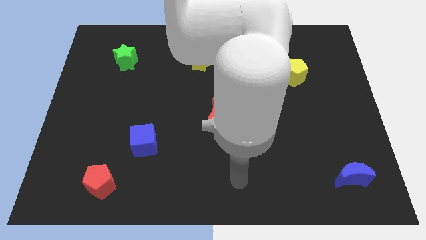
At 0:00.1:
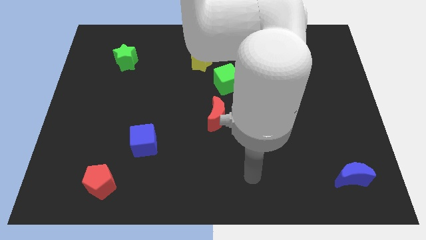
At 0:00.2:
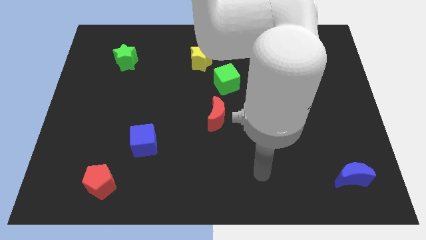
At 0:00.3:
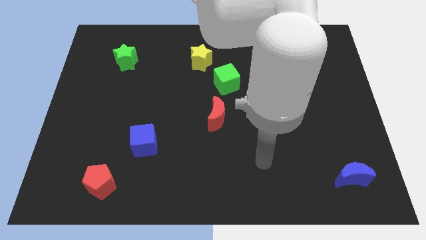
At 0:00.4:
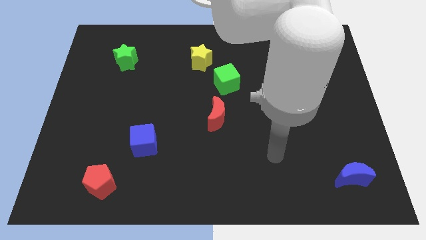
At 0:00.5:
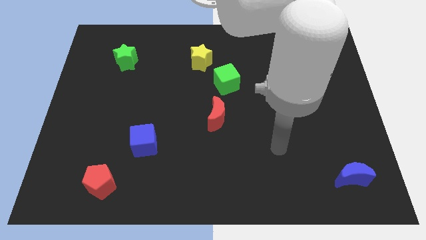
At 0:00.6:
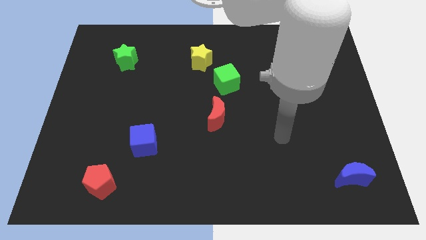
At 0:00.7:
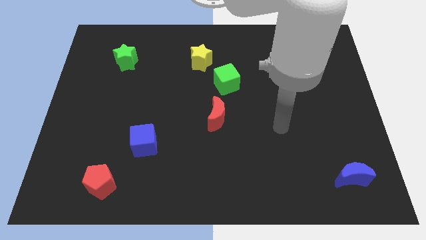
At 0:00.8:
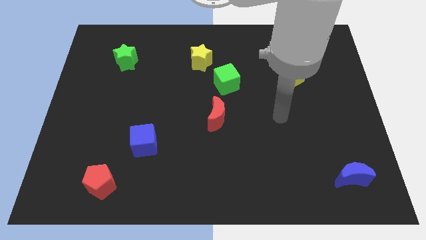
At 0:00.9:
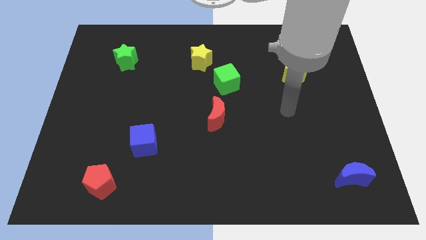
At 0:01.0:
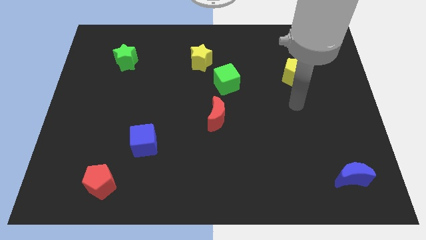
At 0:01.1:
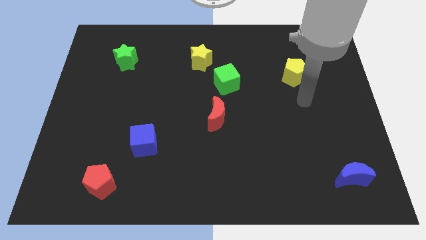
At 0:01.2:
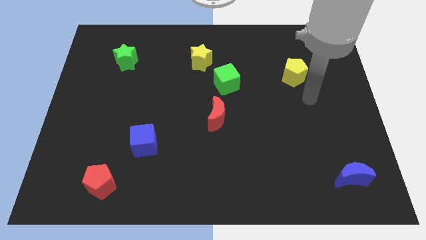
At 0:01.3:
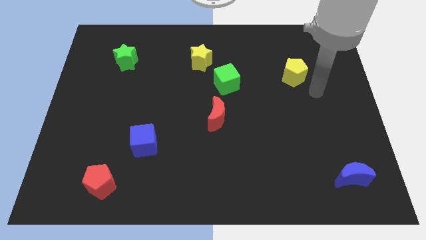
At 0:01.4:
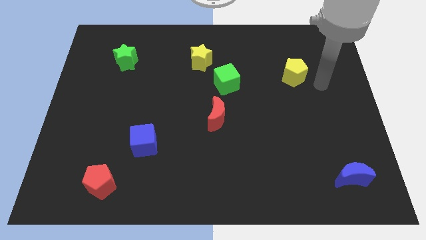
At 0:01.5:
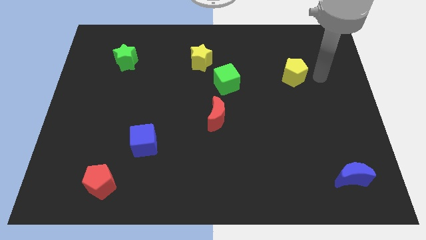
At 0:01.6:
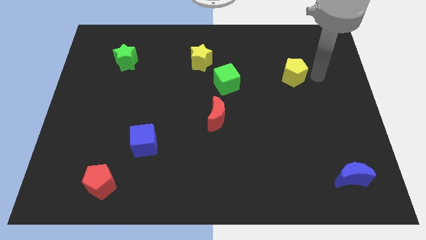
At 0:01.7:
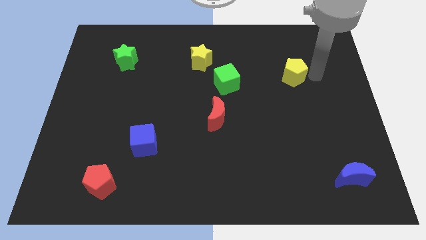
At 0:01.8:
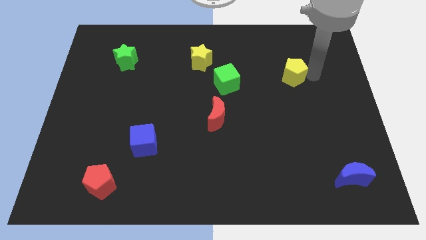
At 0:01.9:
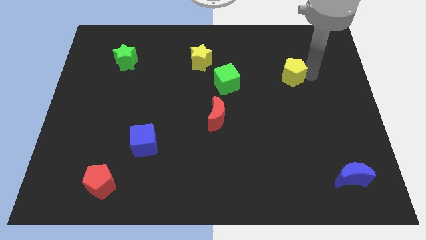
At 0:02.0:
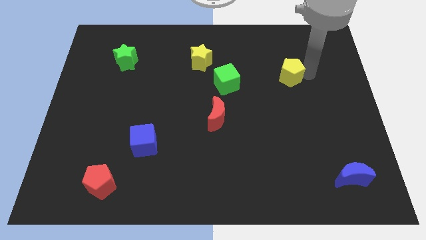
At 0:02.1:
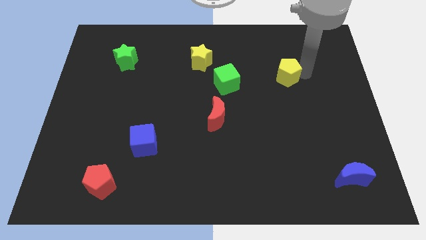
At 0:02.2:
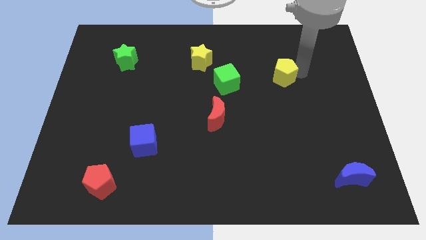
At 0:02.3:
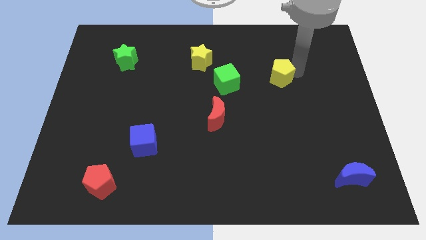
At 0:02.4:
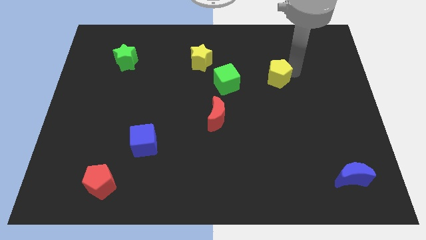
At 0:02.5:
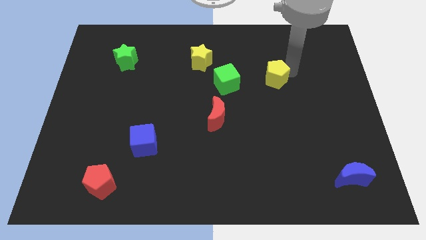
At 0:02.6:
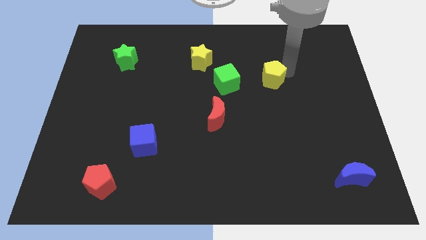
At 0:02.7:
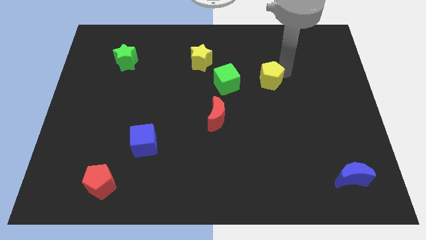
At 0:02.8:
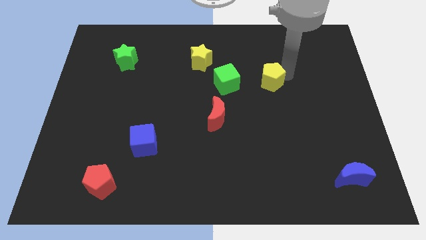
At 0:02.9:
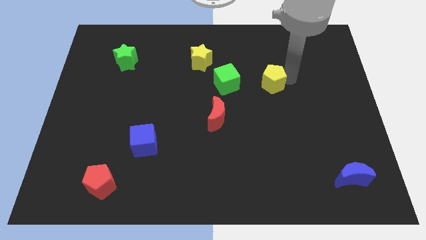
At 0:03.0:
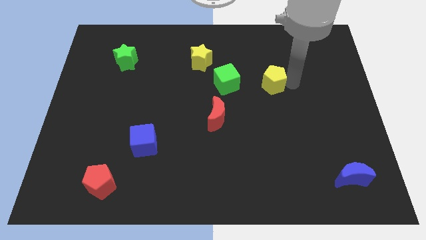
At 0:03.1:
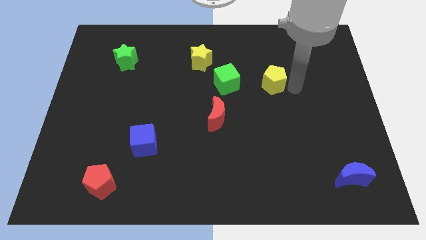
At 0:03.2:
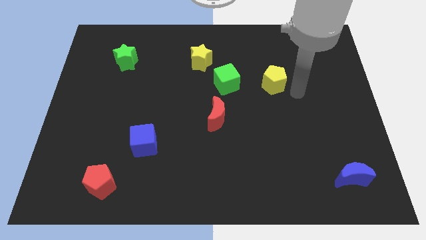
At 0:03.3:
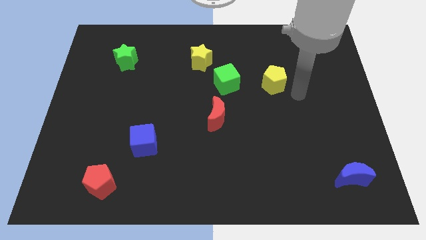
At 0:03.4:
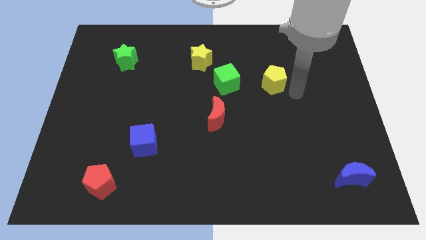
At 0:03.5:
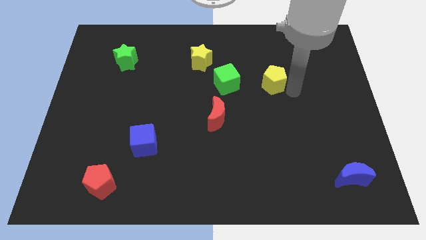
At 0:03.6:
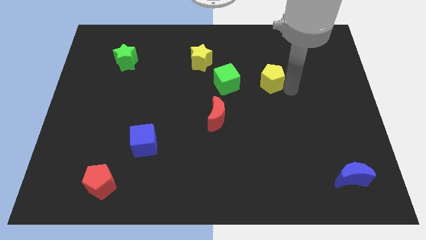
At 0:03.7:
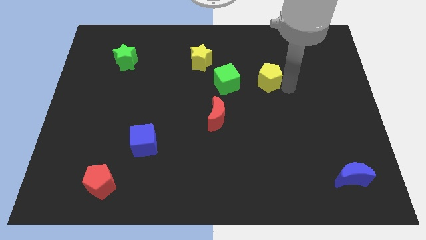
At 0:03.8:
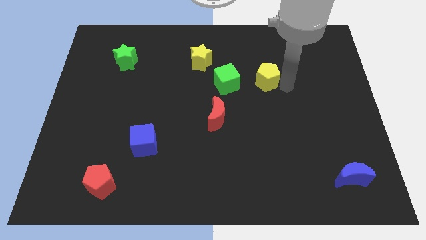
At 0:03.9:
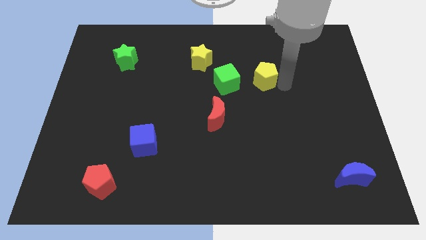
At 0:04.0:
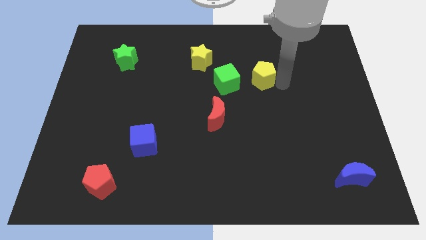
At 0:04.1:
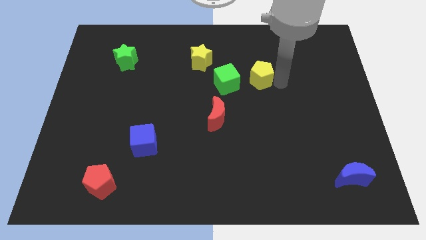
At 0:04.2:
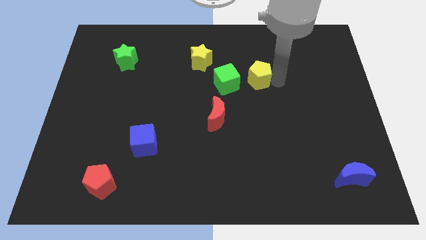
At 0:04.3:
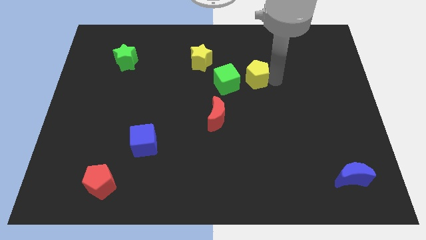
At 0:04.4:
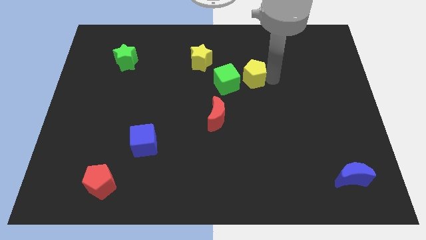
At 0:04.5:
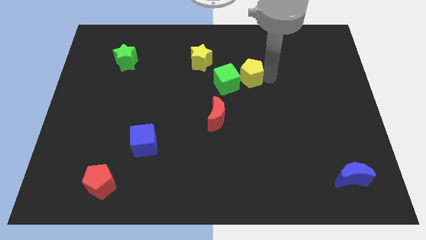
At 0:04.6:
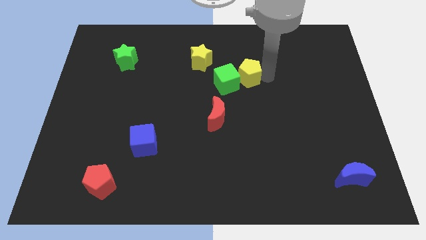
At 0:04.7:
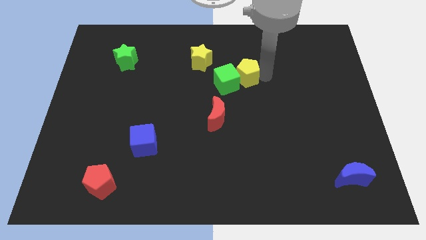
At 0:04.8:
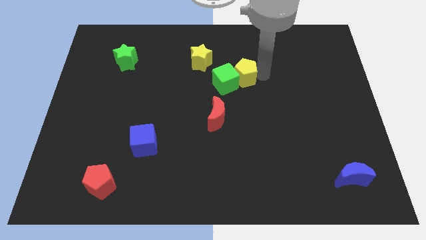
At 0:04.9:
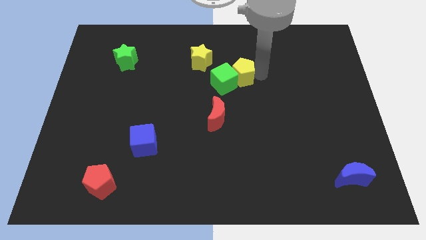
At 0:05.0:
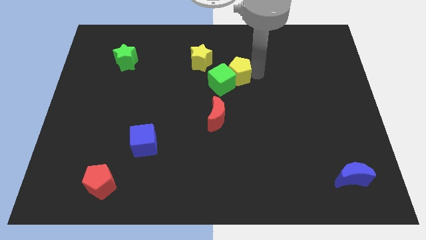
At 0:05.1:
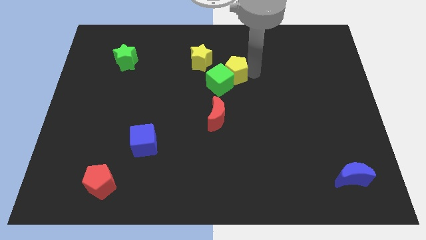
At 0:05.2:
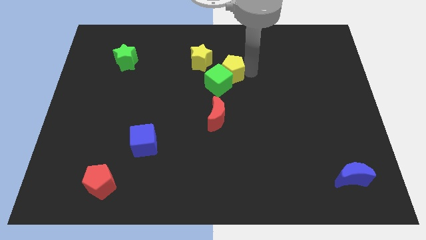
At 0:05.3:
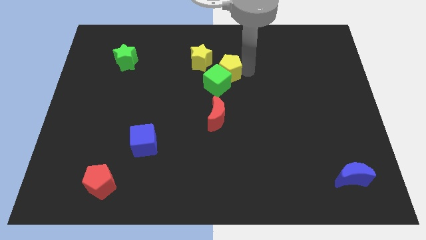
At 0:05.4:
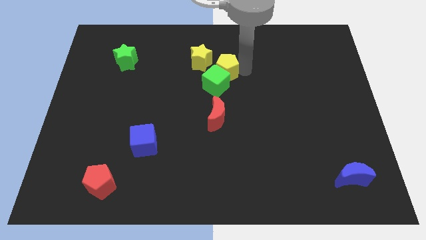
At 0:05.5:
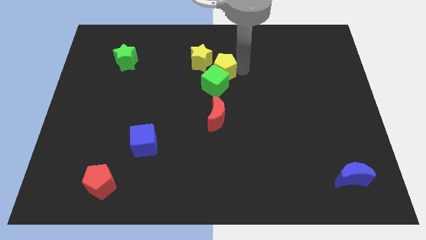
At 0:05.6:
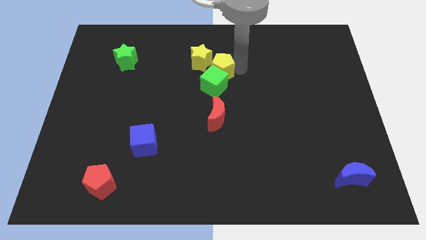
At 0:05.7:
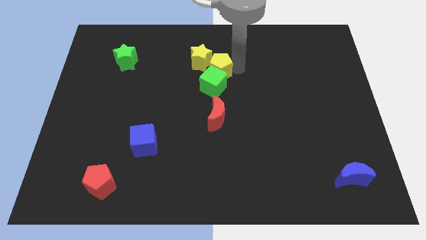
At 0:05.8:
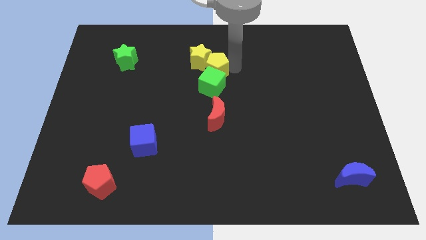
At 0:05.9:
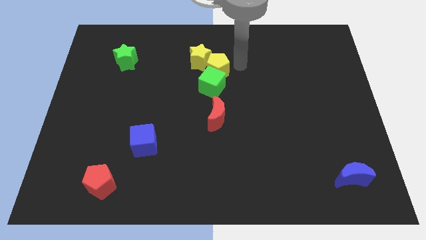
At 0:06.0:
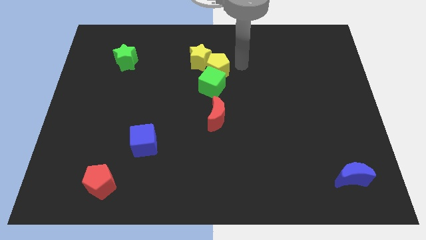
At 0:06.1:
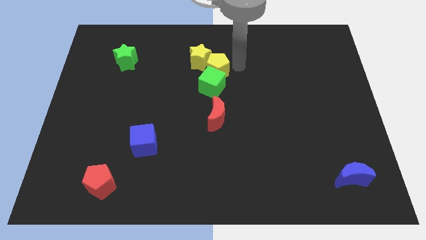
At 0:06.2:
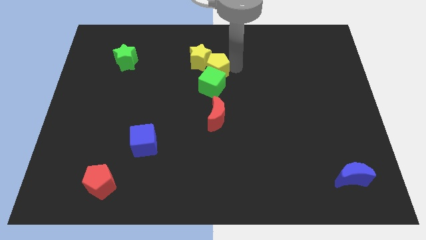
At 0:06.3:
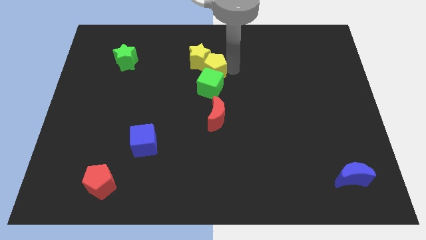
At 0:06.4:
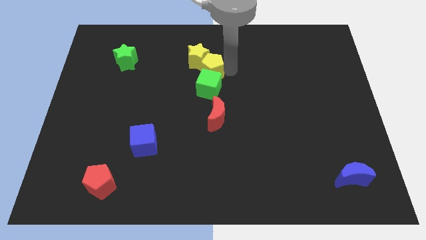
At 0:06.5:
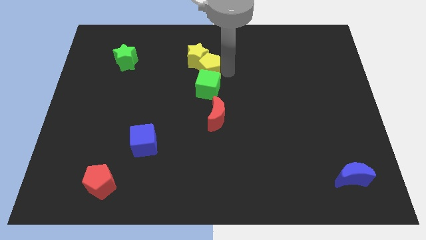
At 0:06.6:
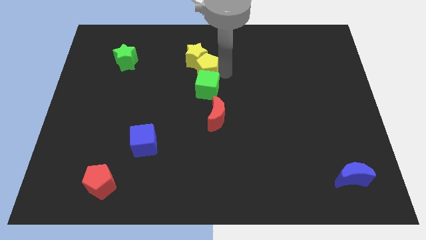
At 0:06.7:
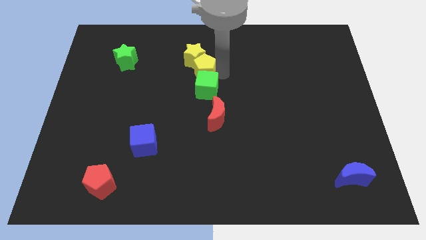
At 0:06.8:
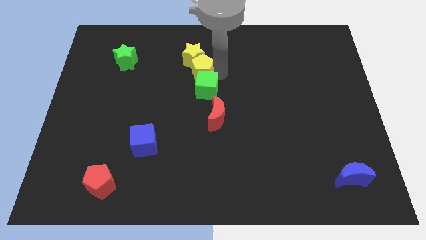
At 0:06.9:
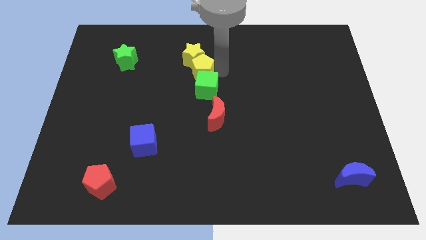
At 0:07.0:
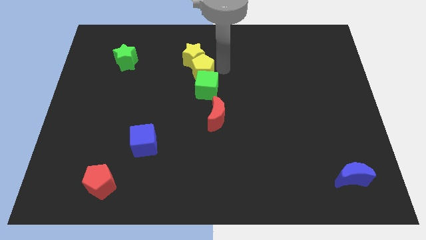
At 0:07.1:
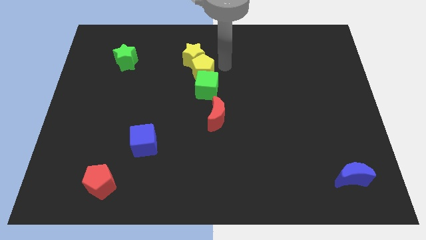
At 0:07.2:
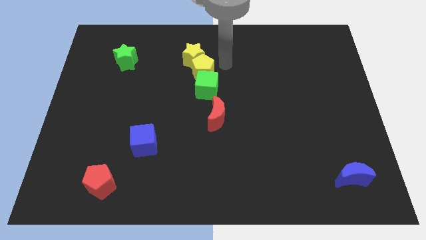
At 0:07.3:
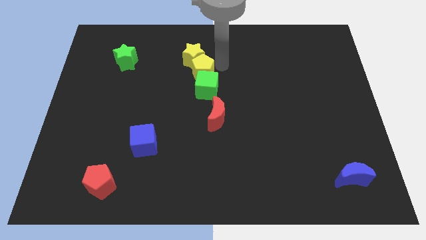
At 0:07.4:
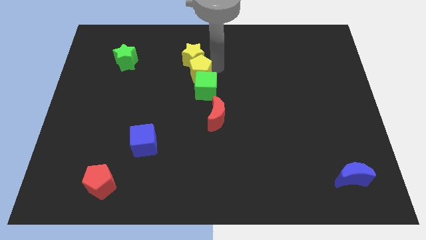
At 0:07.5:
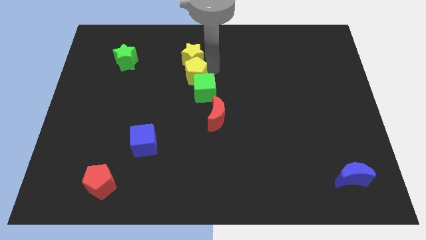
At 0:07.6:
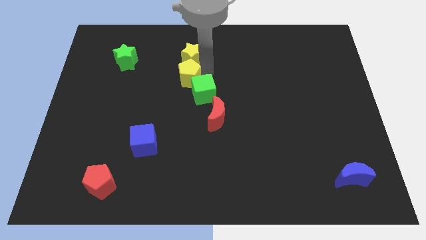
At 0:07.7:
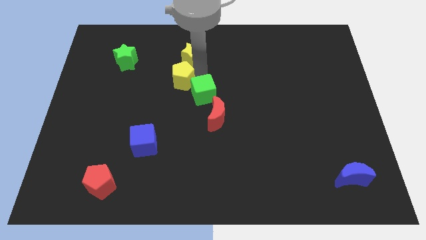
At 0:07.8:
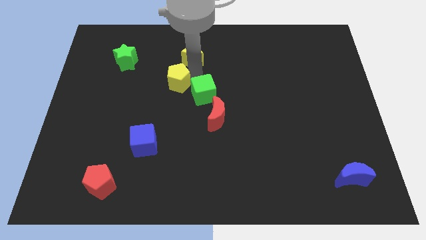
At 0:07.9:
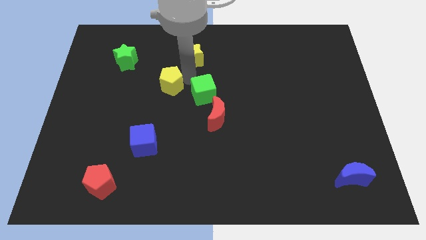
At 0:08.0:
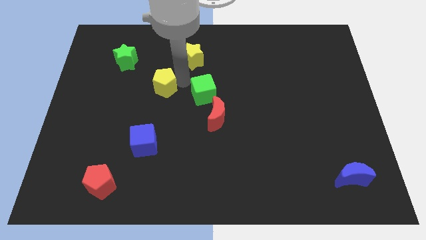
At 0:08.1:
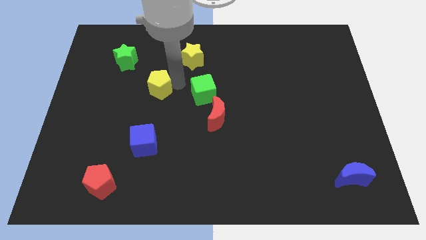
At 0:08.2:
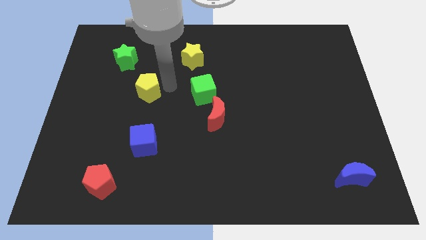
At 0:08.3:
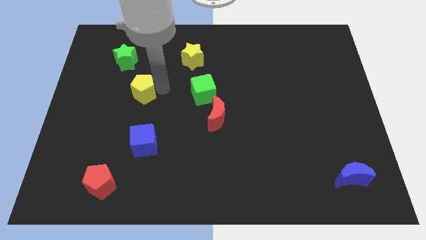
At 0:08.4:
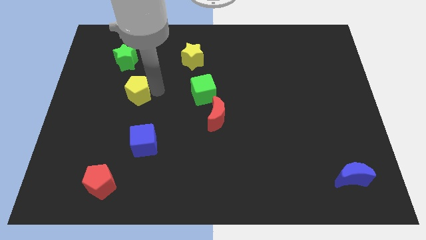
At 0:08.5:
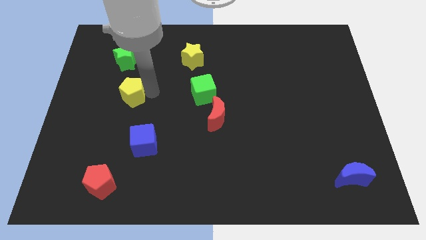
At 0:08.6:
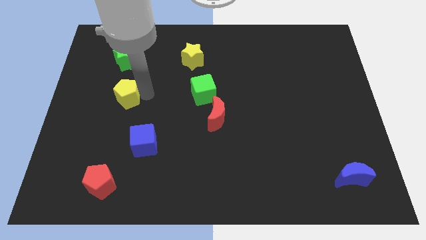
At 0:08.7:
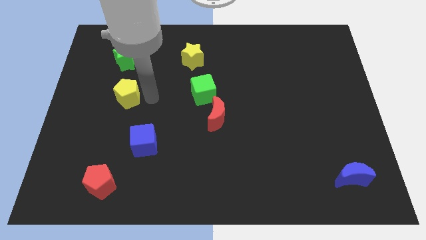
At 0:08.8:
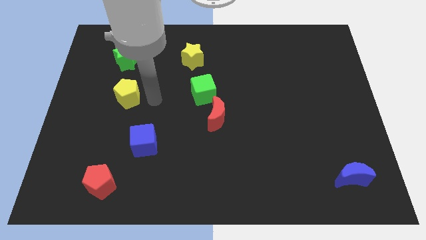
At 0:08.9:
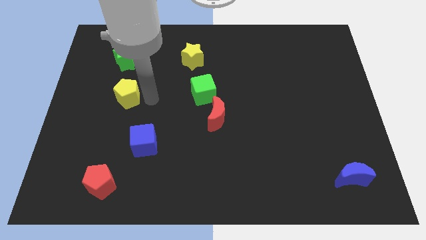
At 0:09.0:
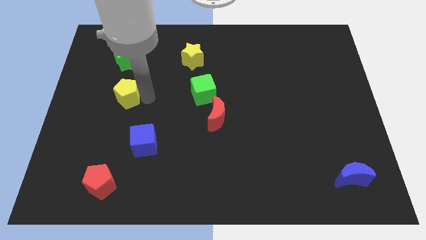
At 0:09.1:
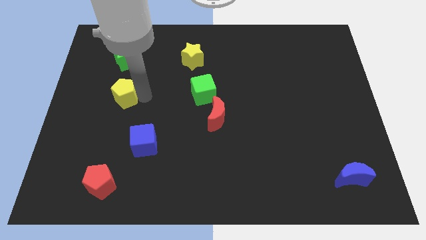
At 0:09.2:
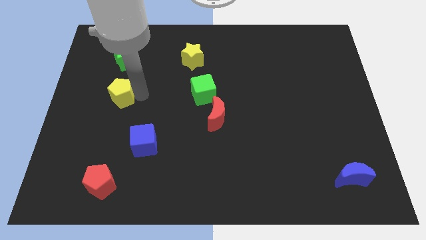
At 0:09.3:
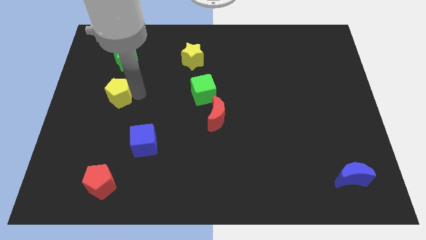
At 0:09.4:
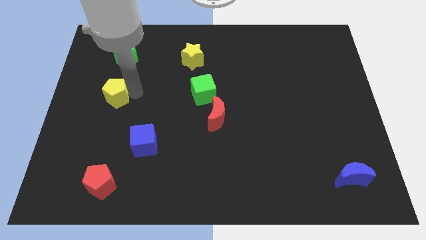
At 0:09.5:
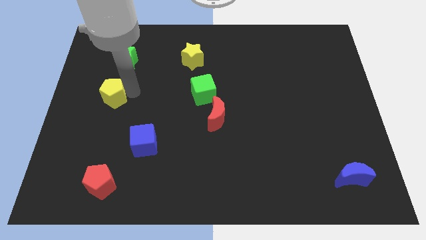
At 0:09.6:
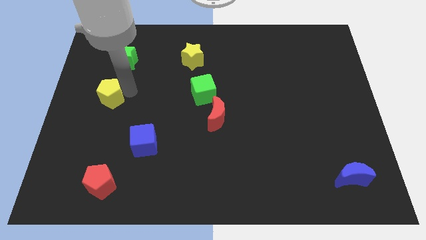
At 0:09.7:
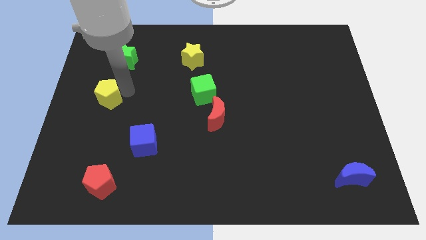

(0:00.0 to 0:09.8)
put the yellow pentagon to the left side
